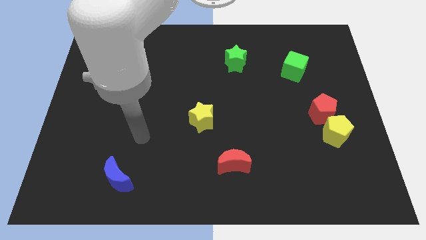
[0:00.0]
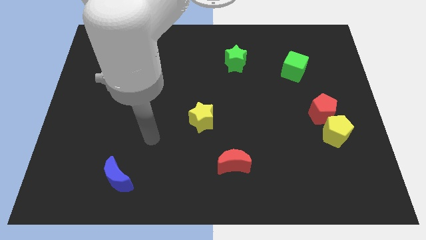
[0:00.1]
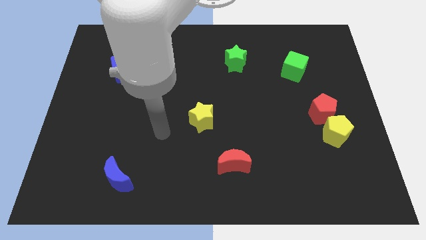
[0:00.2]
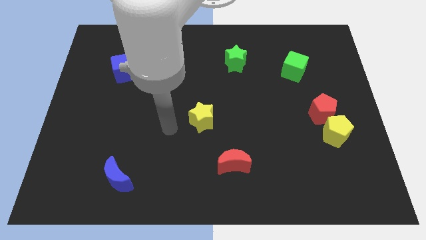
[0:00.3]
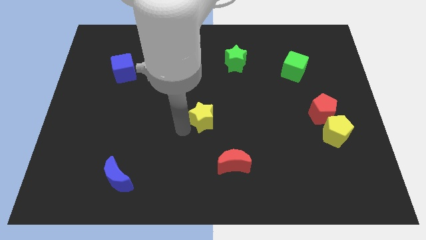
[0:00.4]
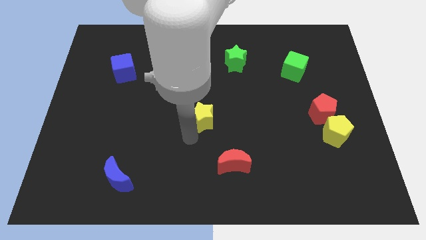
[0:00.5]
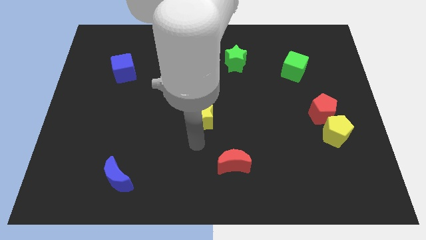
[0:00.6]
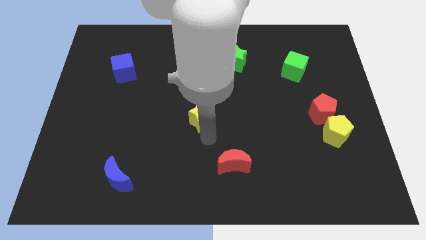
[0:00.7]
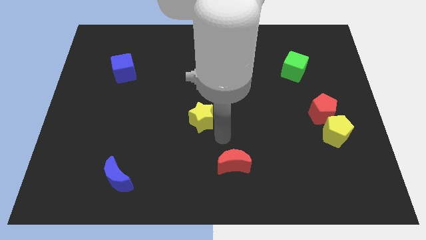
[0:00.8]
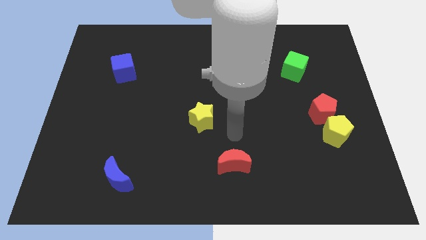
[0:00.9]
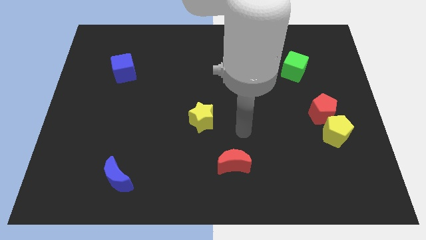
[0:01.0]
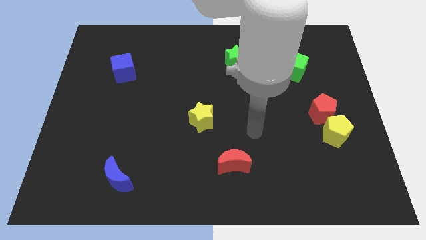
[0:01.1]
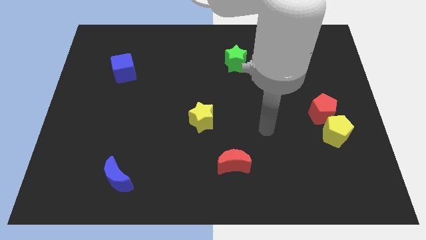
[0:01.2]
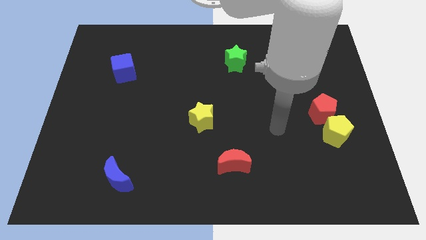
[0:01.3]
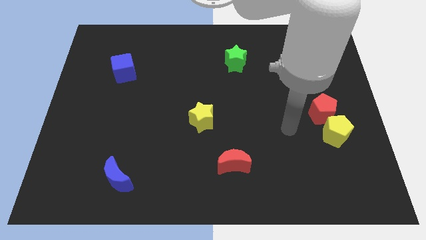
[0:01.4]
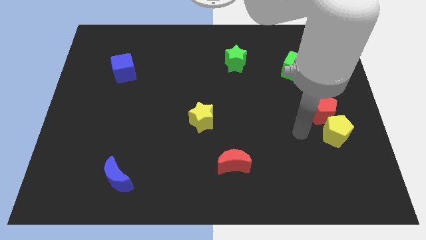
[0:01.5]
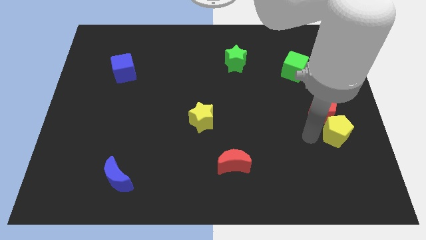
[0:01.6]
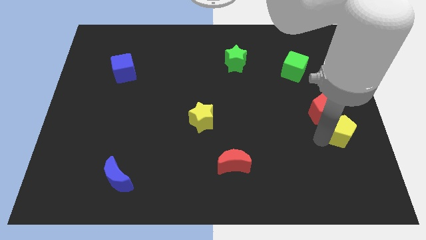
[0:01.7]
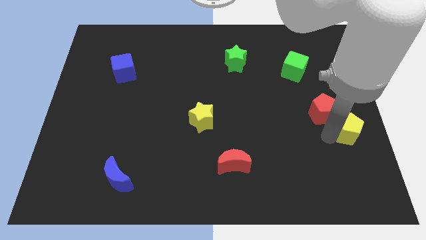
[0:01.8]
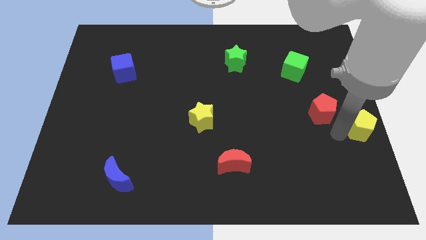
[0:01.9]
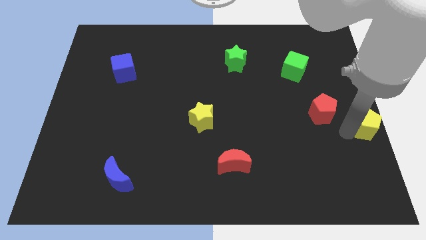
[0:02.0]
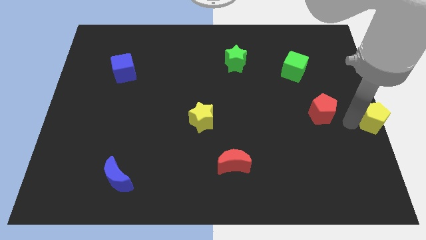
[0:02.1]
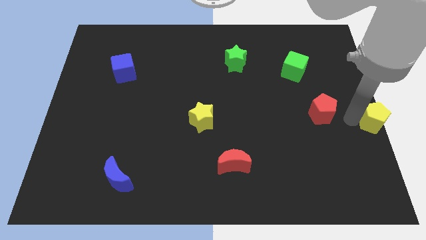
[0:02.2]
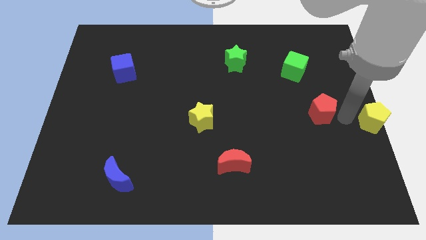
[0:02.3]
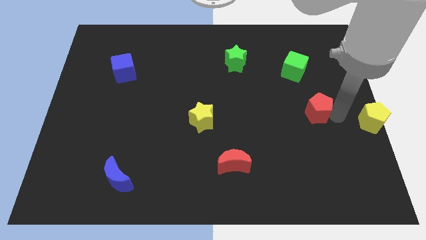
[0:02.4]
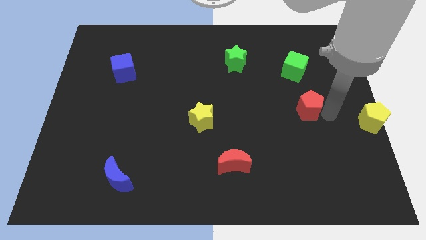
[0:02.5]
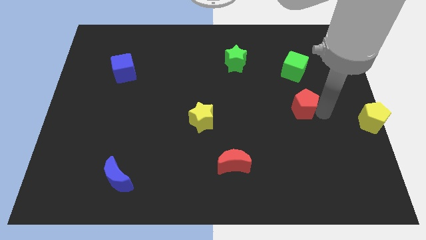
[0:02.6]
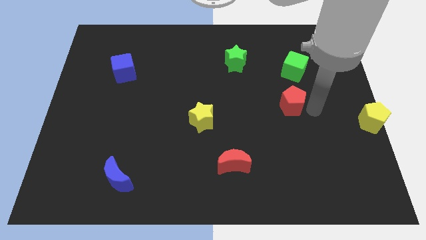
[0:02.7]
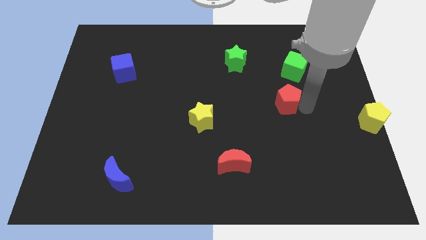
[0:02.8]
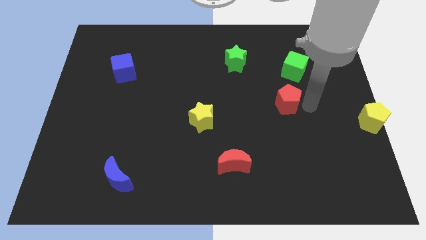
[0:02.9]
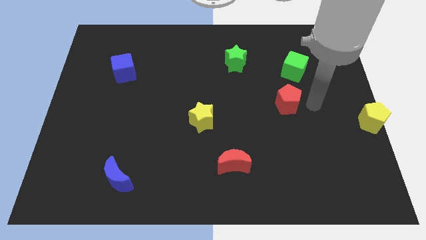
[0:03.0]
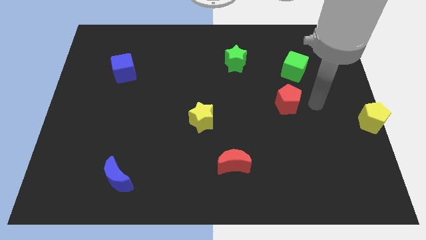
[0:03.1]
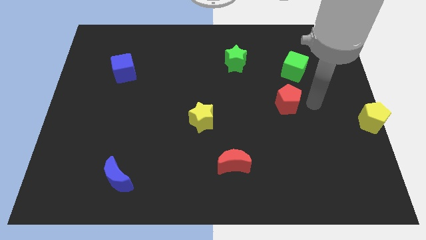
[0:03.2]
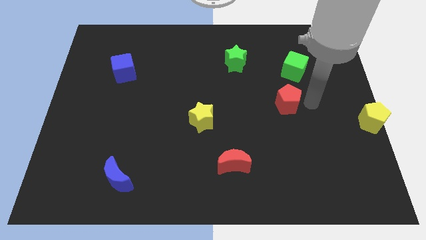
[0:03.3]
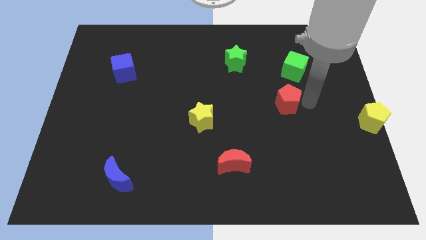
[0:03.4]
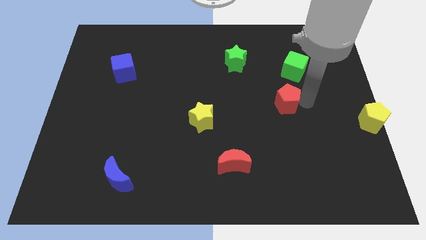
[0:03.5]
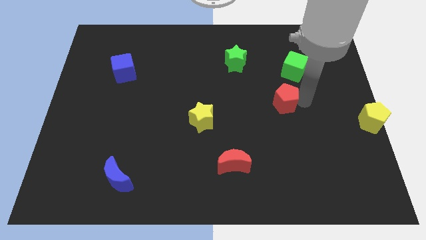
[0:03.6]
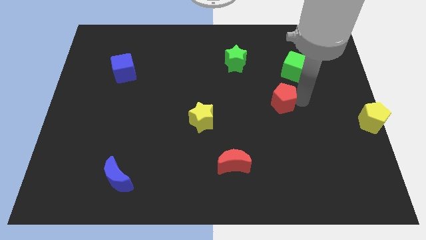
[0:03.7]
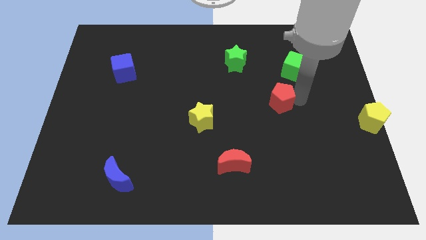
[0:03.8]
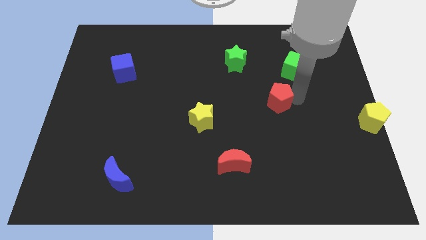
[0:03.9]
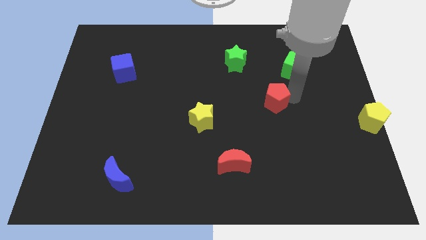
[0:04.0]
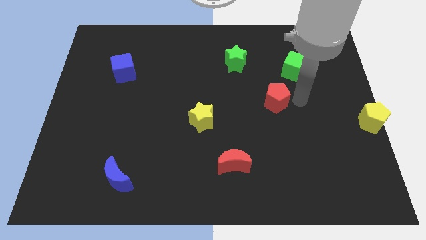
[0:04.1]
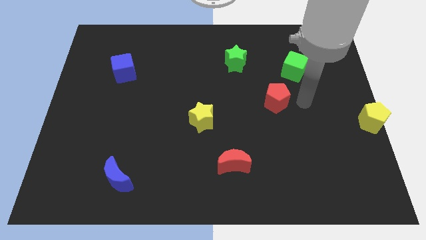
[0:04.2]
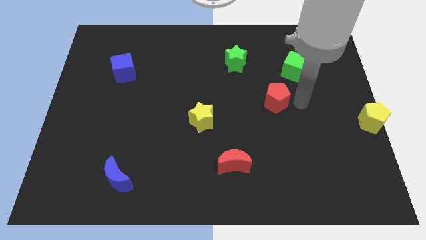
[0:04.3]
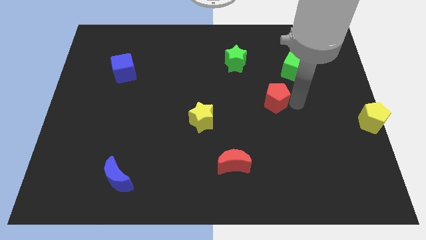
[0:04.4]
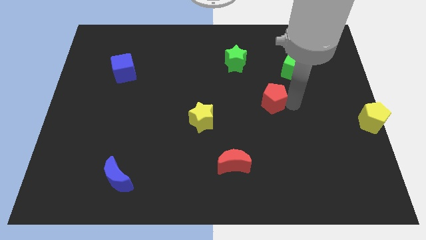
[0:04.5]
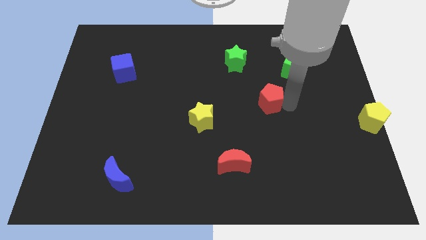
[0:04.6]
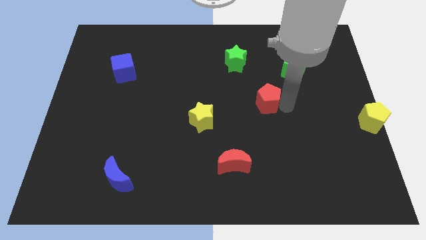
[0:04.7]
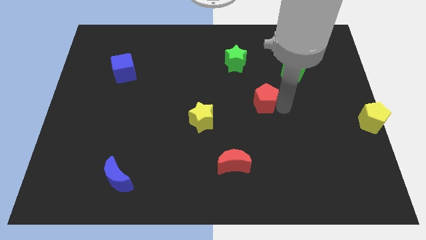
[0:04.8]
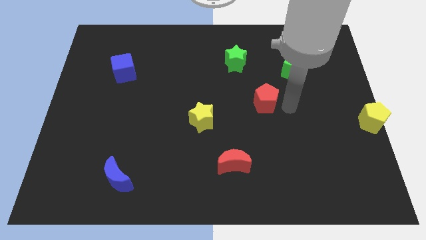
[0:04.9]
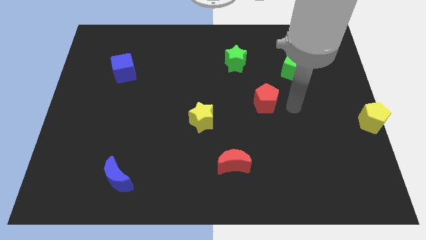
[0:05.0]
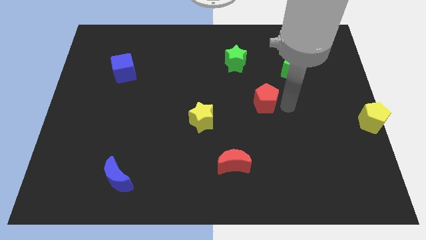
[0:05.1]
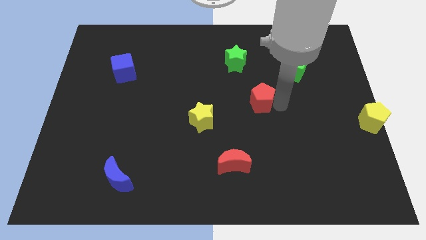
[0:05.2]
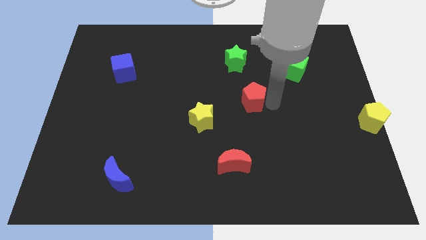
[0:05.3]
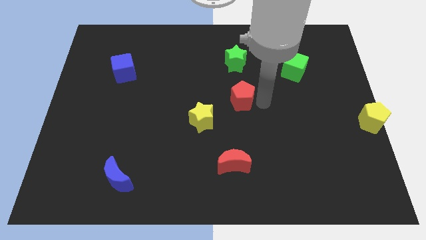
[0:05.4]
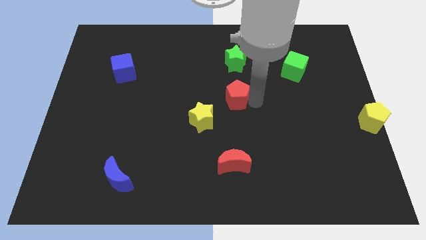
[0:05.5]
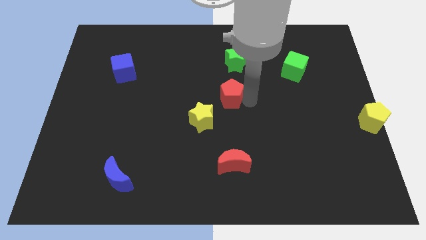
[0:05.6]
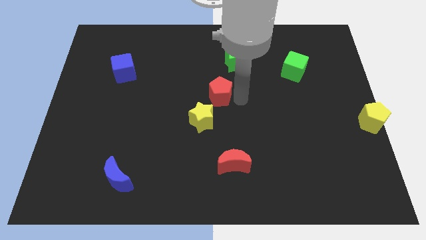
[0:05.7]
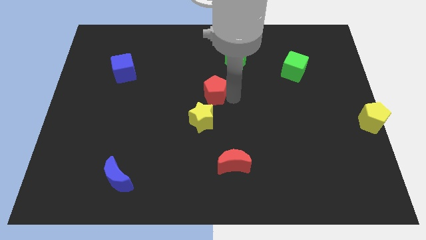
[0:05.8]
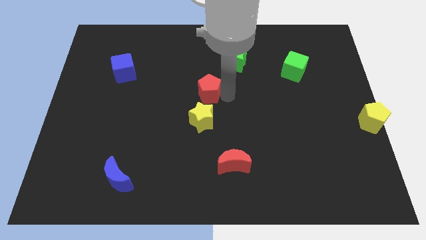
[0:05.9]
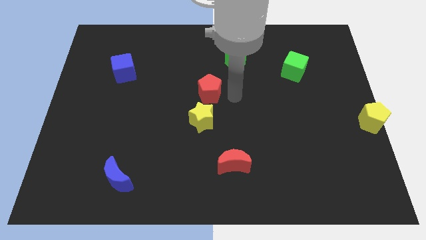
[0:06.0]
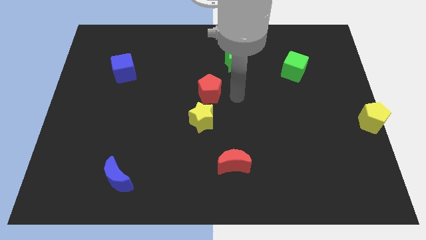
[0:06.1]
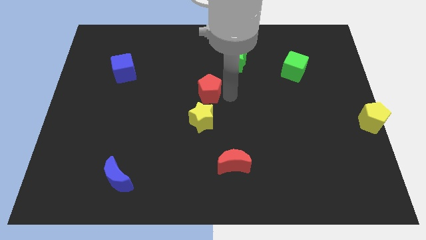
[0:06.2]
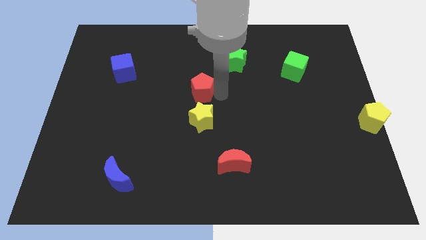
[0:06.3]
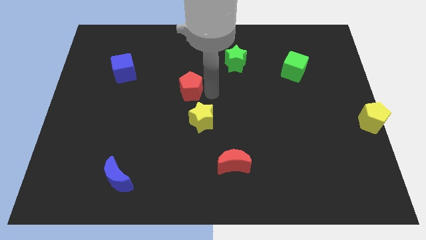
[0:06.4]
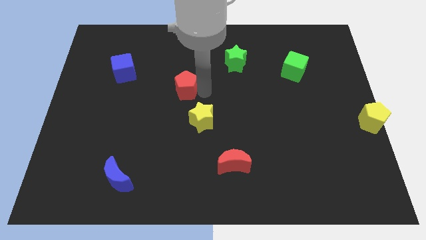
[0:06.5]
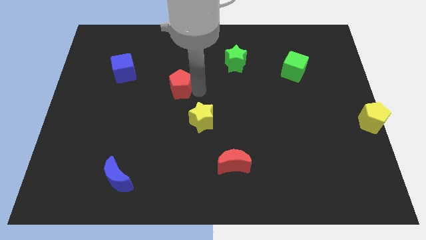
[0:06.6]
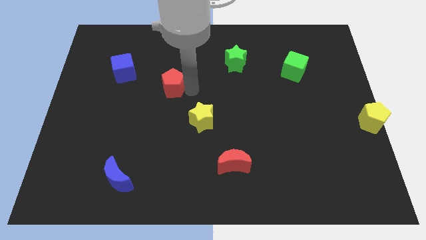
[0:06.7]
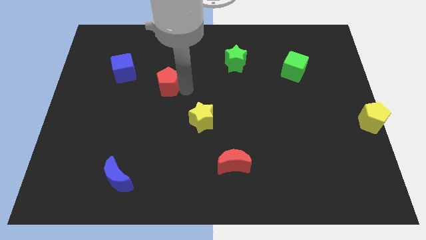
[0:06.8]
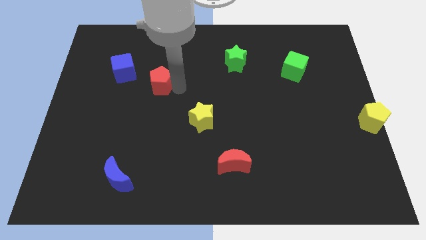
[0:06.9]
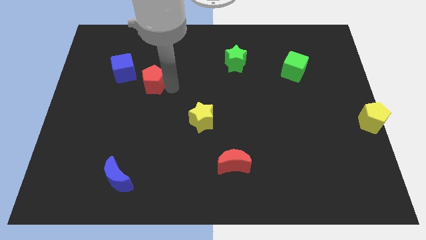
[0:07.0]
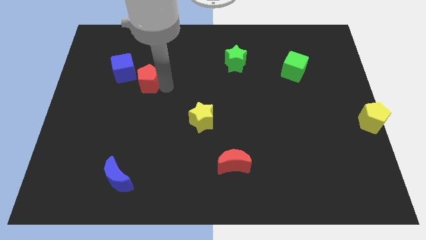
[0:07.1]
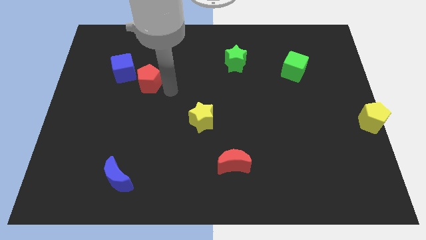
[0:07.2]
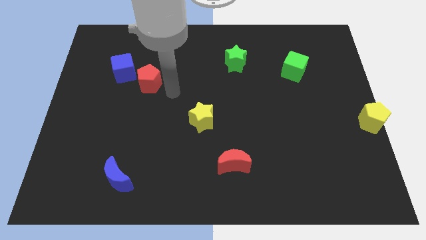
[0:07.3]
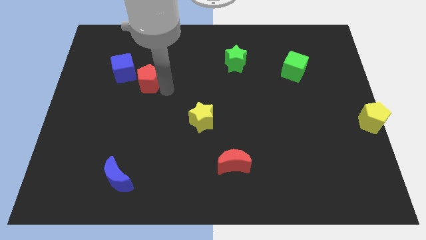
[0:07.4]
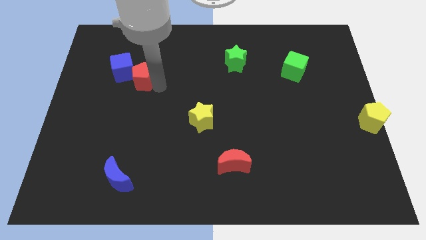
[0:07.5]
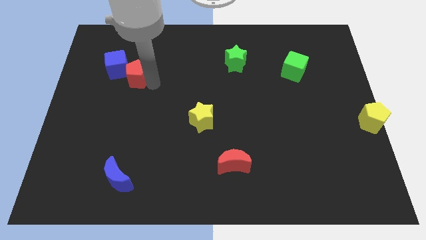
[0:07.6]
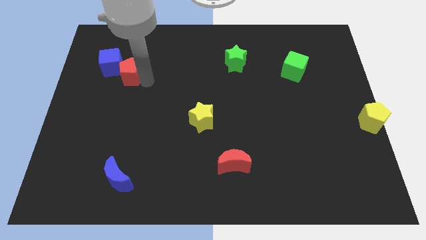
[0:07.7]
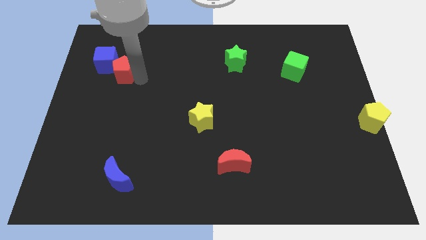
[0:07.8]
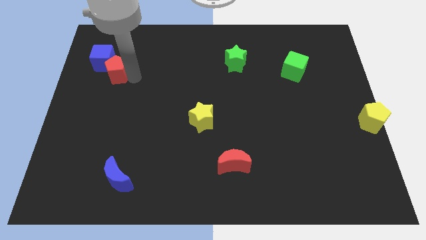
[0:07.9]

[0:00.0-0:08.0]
slide the red pentagon towards the blue cube
